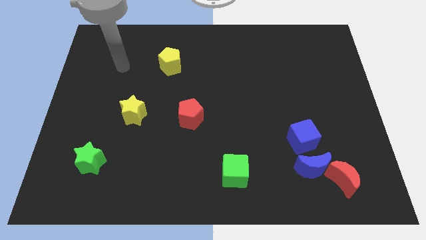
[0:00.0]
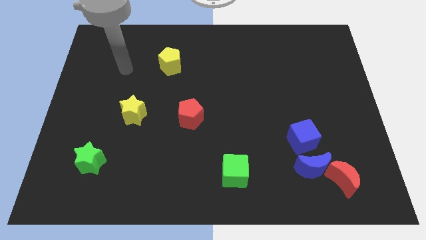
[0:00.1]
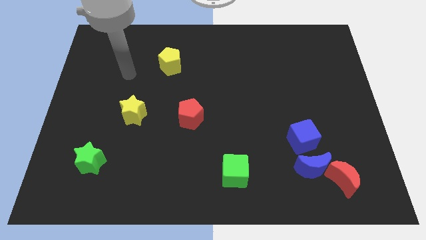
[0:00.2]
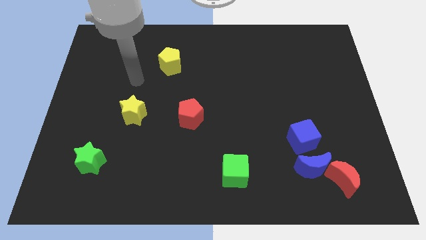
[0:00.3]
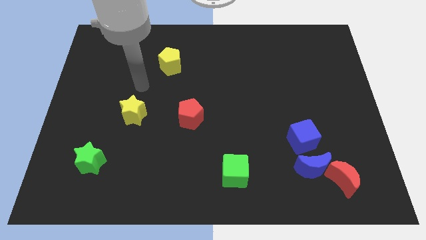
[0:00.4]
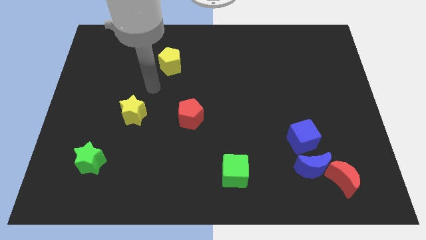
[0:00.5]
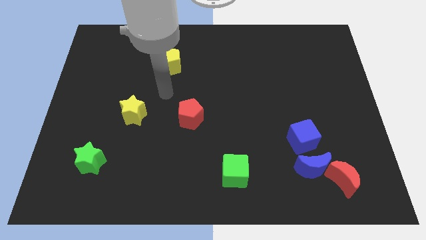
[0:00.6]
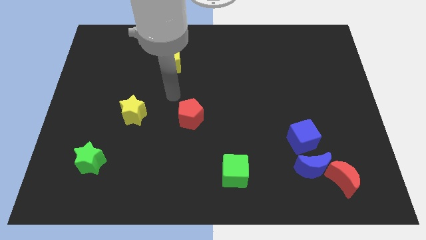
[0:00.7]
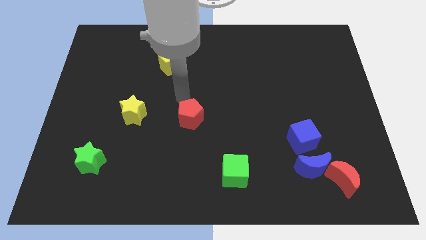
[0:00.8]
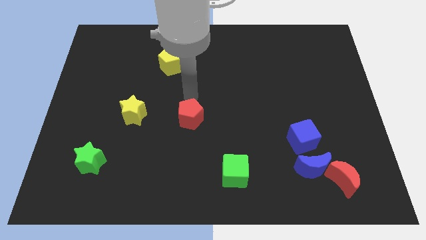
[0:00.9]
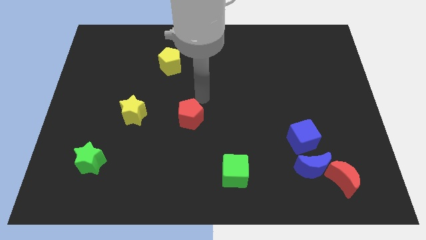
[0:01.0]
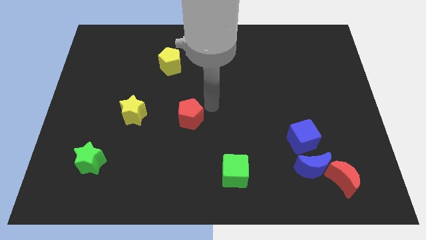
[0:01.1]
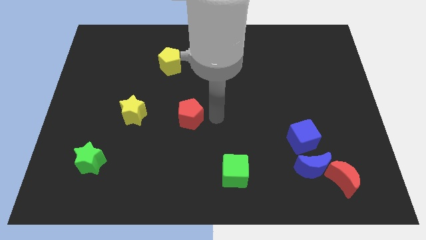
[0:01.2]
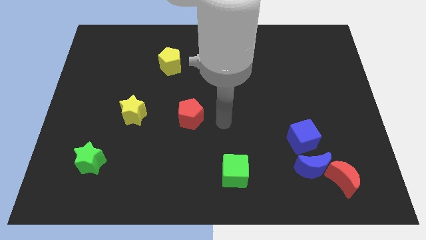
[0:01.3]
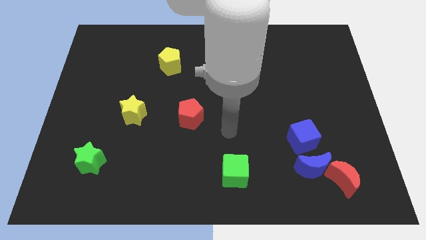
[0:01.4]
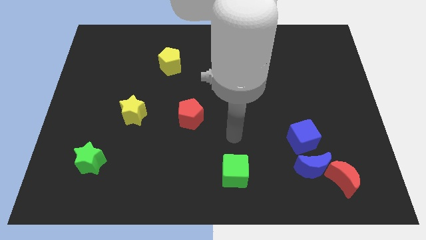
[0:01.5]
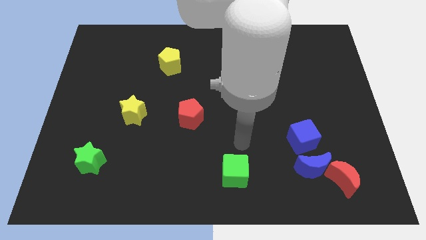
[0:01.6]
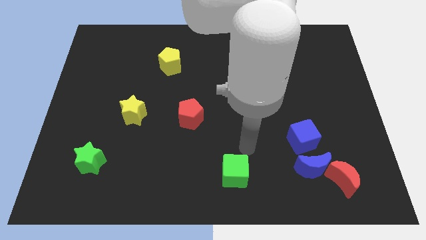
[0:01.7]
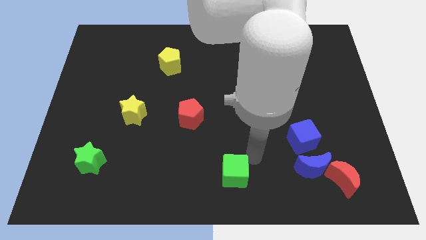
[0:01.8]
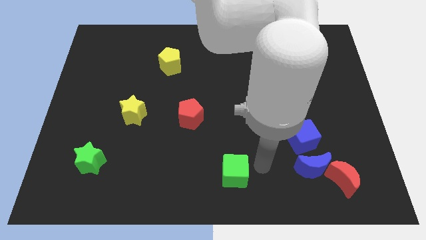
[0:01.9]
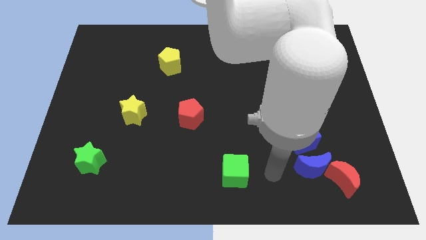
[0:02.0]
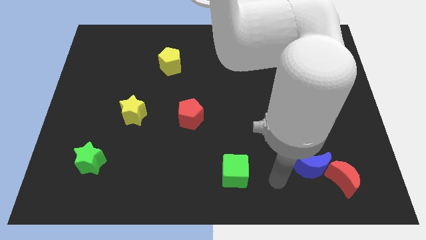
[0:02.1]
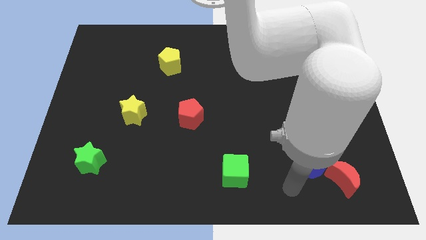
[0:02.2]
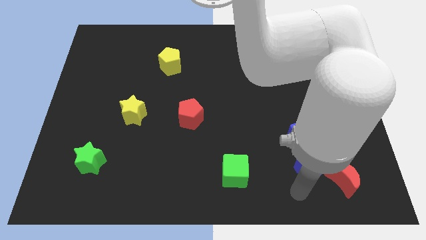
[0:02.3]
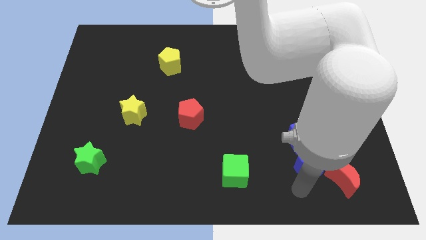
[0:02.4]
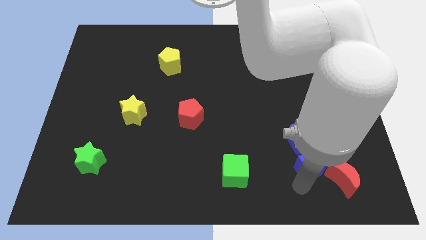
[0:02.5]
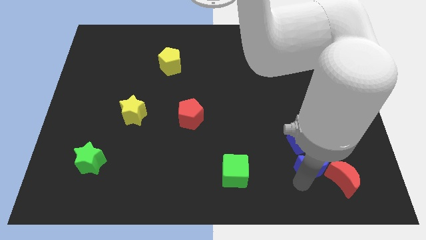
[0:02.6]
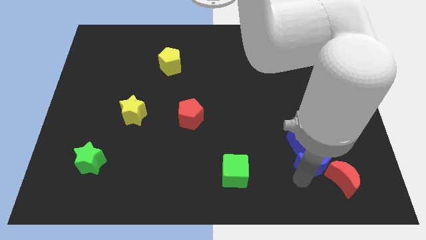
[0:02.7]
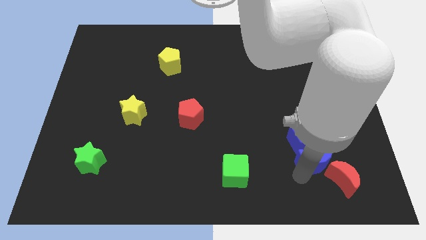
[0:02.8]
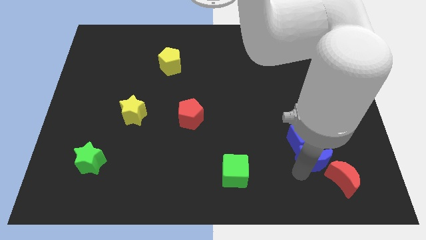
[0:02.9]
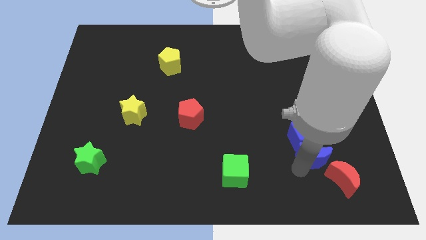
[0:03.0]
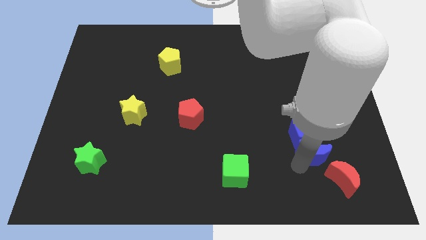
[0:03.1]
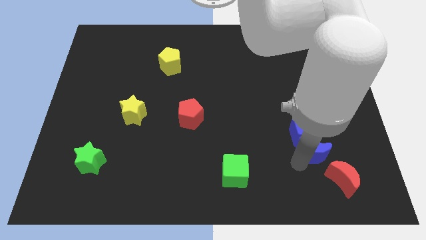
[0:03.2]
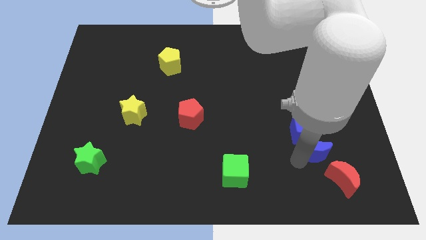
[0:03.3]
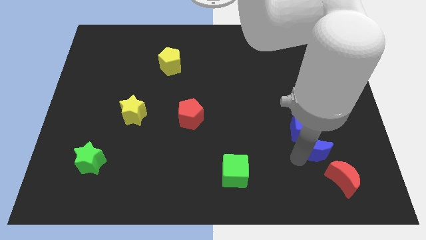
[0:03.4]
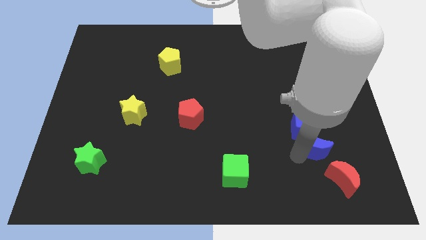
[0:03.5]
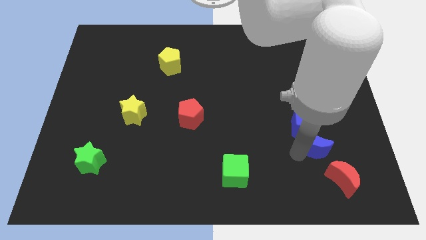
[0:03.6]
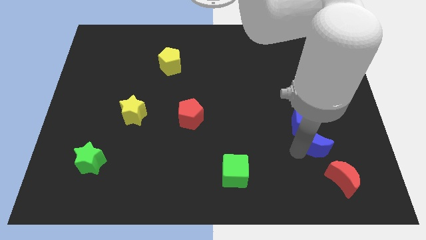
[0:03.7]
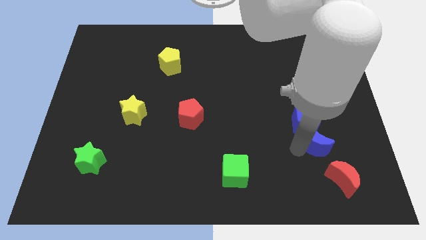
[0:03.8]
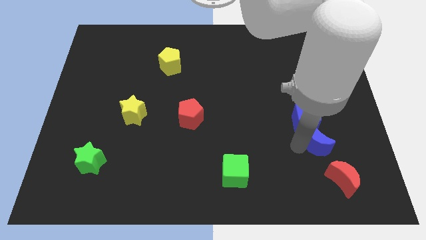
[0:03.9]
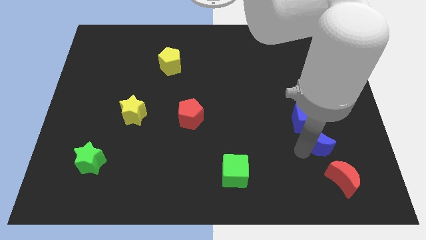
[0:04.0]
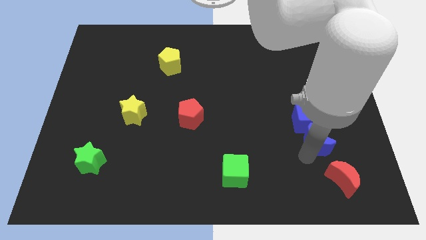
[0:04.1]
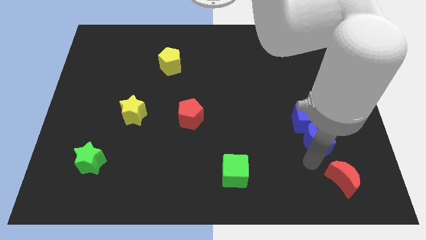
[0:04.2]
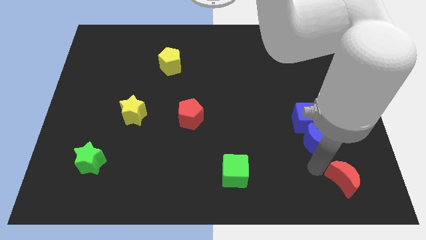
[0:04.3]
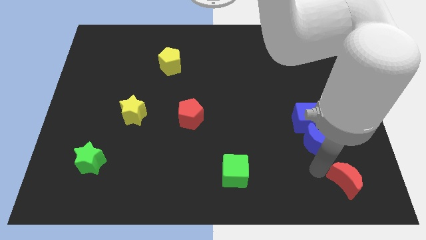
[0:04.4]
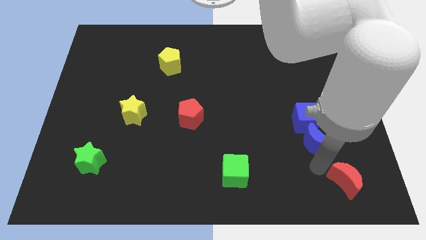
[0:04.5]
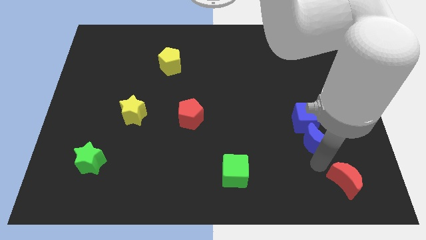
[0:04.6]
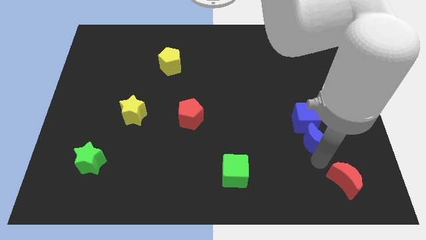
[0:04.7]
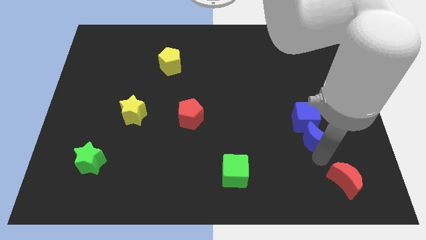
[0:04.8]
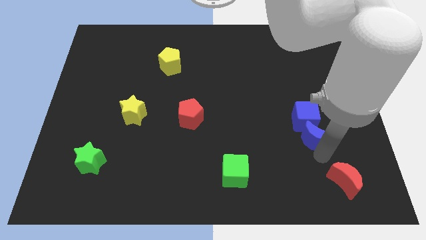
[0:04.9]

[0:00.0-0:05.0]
slightly move the blue moon up

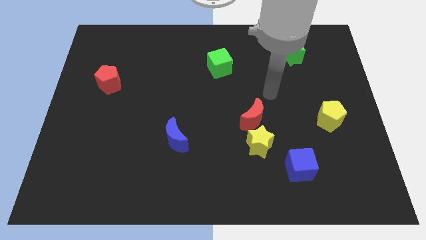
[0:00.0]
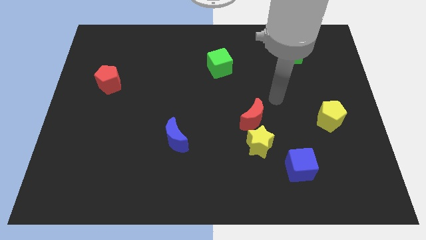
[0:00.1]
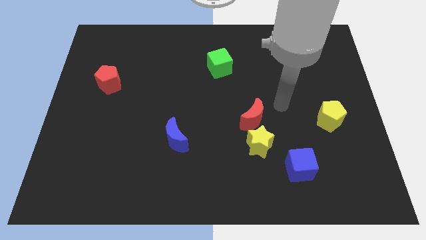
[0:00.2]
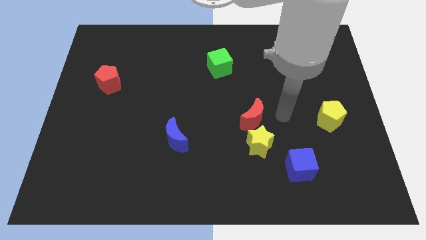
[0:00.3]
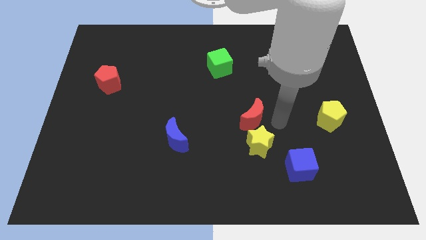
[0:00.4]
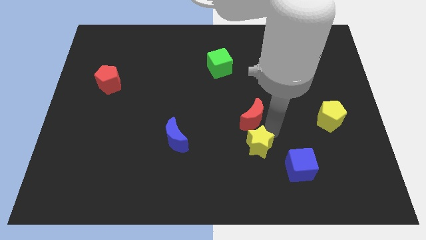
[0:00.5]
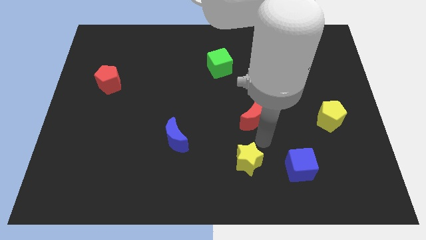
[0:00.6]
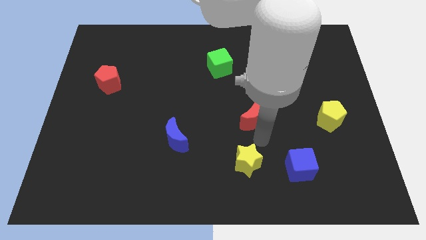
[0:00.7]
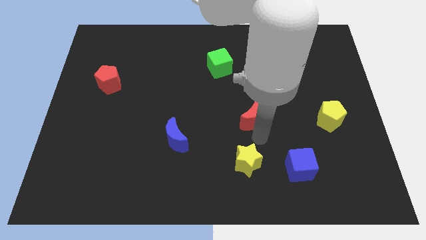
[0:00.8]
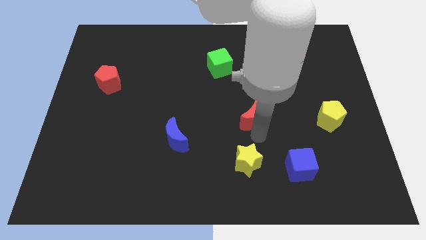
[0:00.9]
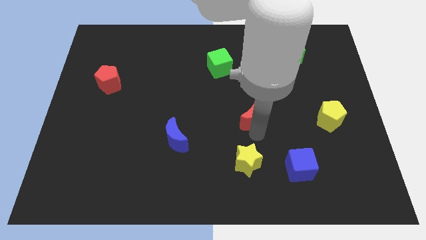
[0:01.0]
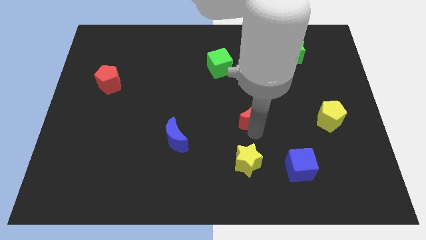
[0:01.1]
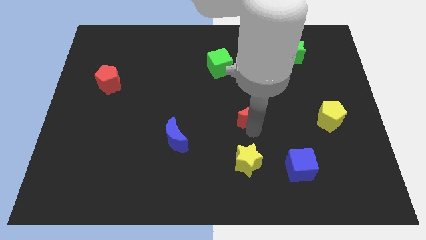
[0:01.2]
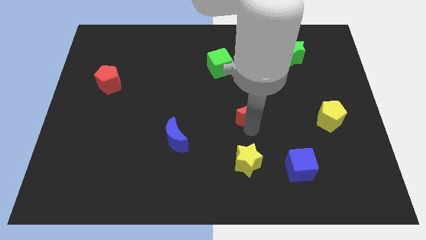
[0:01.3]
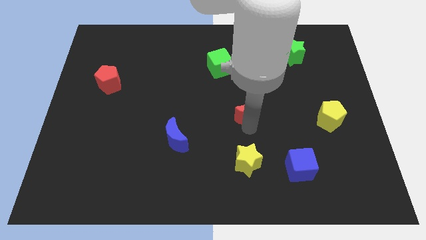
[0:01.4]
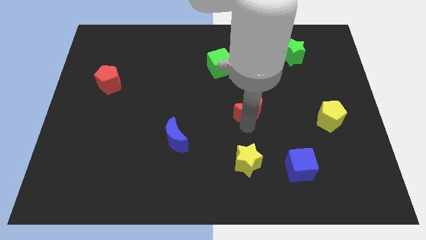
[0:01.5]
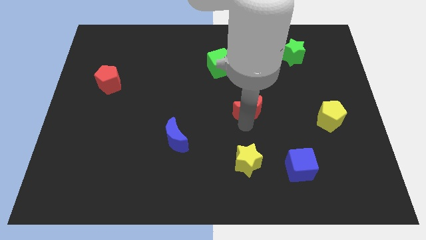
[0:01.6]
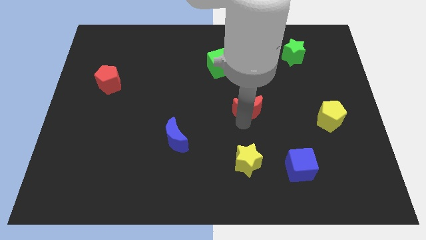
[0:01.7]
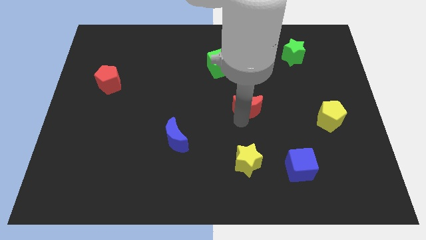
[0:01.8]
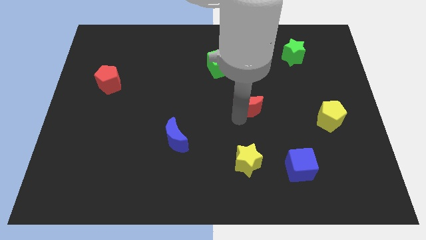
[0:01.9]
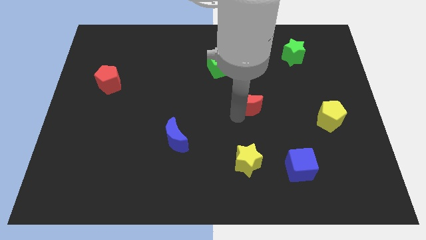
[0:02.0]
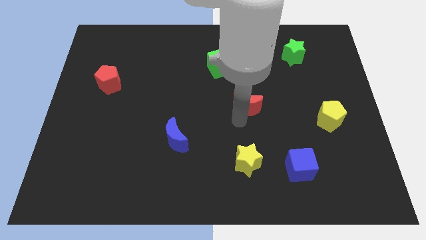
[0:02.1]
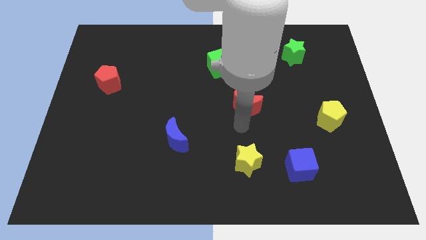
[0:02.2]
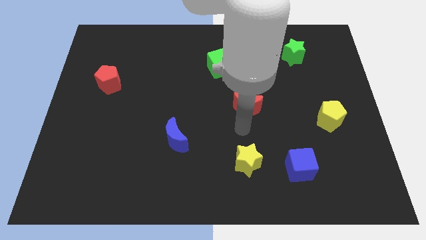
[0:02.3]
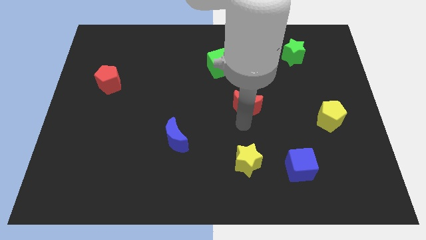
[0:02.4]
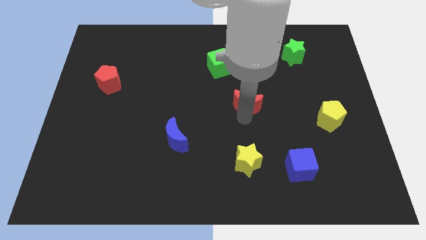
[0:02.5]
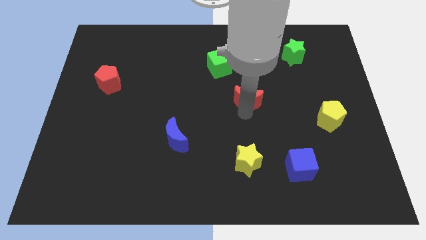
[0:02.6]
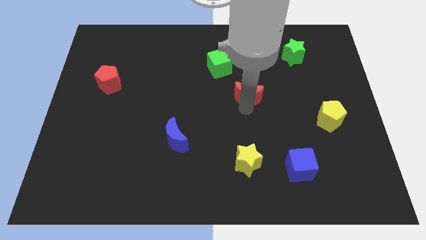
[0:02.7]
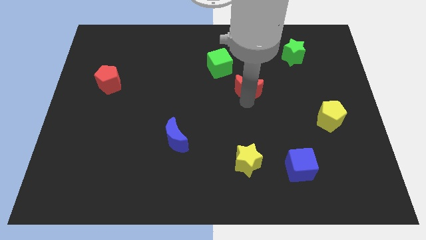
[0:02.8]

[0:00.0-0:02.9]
push the red moon slightly upwards
